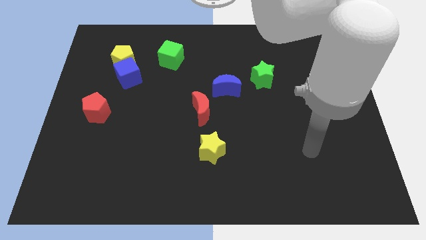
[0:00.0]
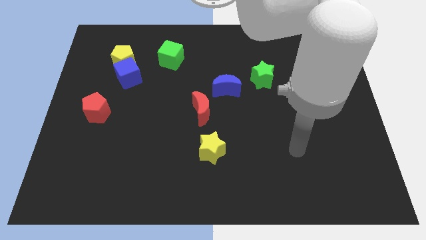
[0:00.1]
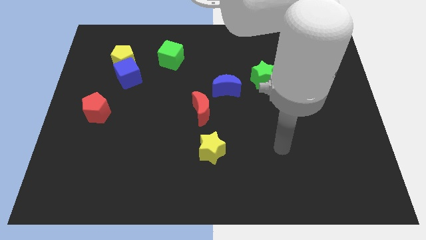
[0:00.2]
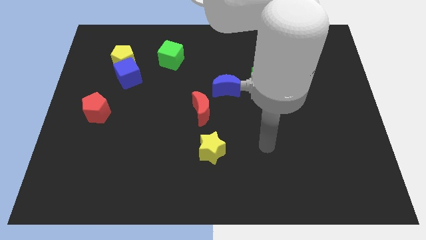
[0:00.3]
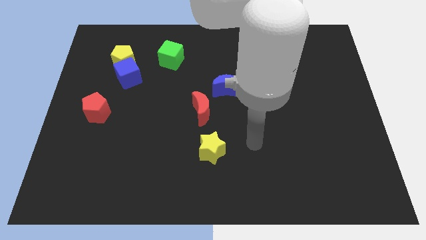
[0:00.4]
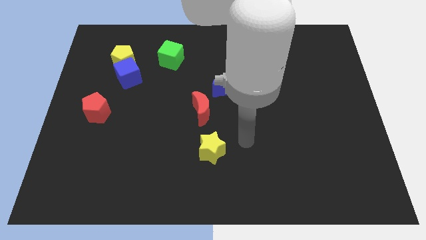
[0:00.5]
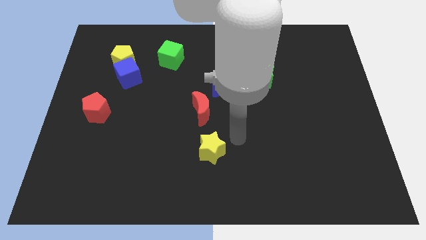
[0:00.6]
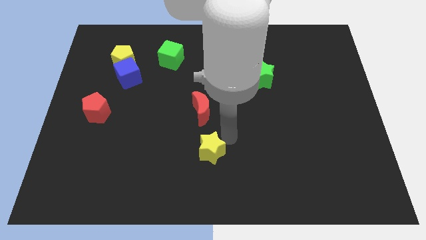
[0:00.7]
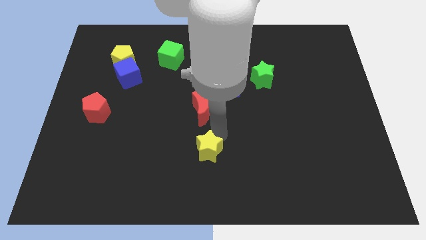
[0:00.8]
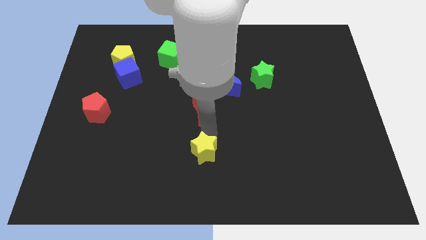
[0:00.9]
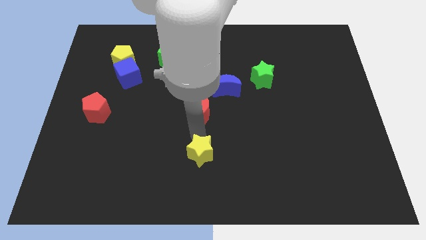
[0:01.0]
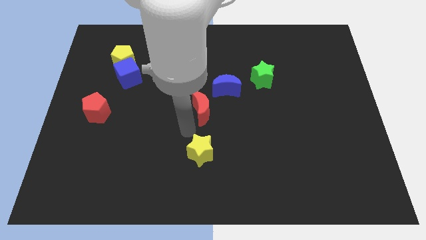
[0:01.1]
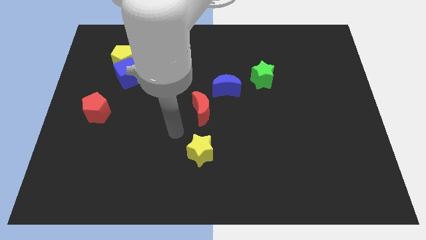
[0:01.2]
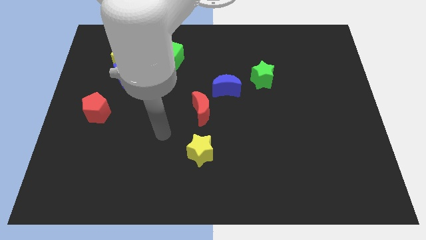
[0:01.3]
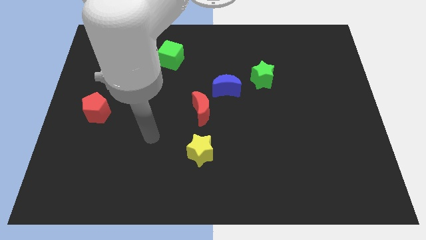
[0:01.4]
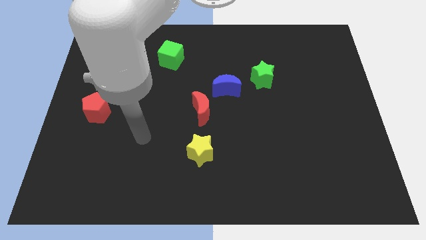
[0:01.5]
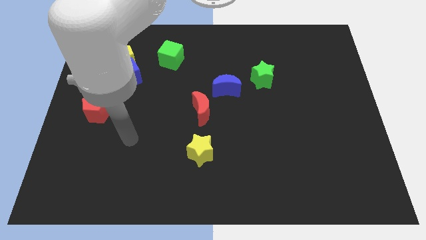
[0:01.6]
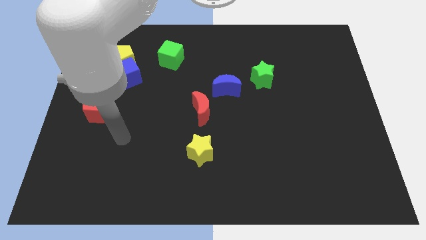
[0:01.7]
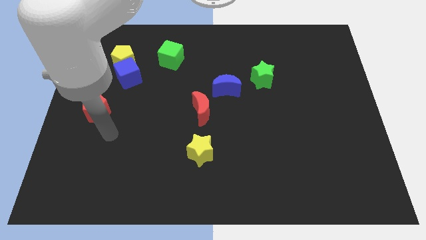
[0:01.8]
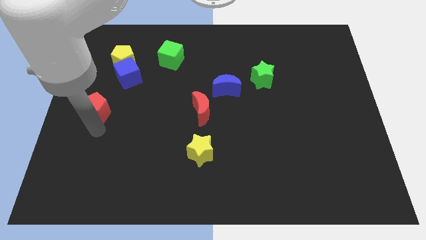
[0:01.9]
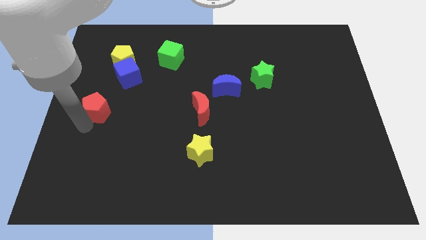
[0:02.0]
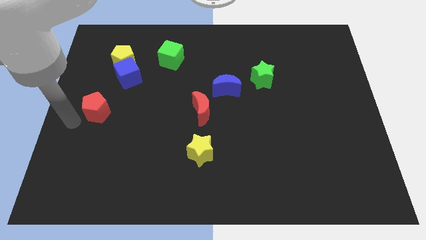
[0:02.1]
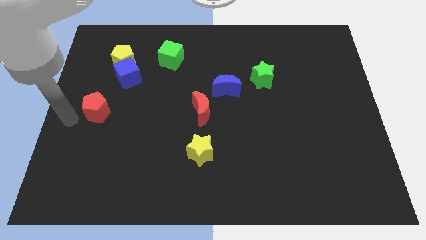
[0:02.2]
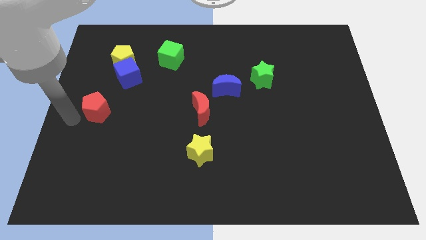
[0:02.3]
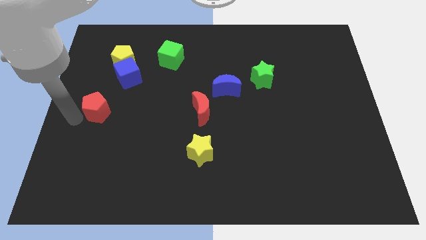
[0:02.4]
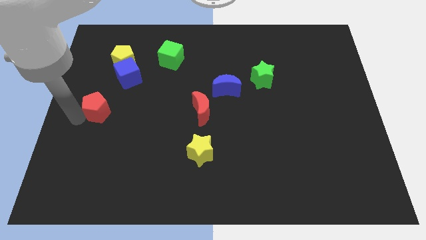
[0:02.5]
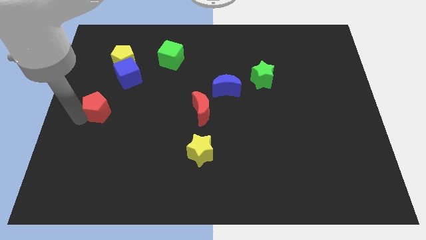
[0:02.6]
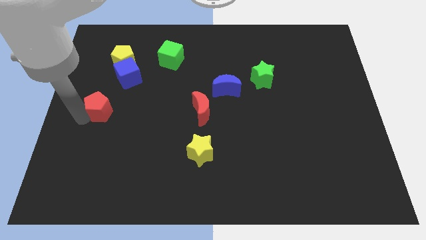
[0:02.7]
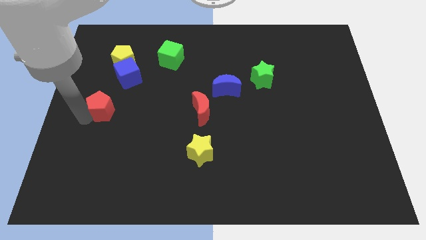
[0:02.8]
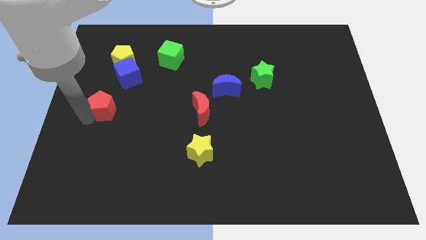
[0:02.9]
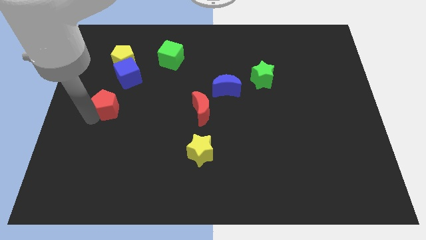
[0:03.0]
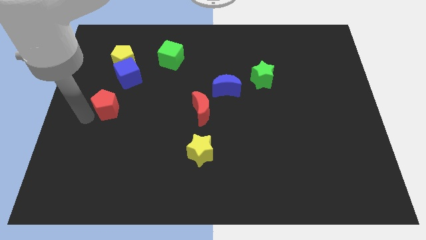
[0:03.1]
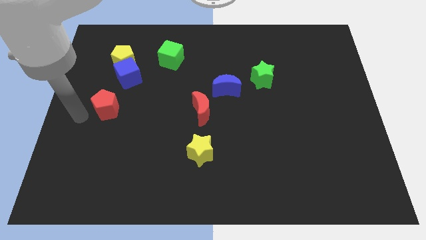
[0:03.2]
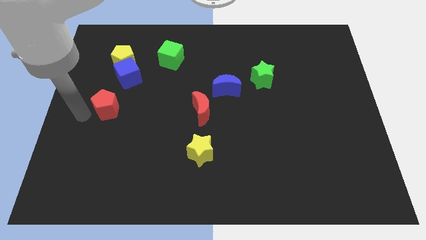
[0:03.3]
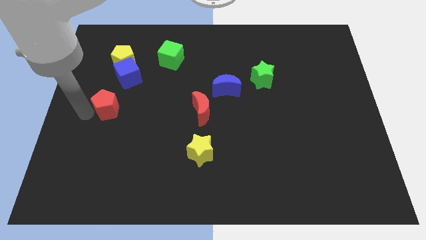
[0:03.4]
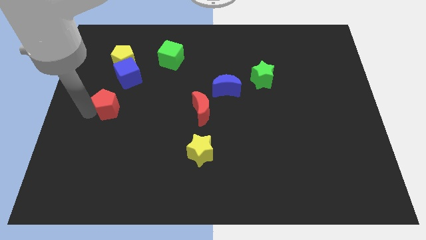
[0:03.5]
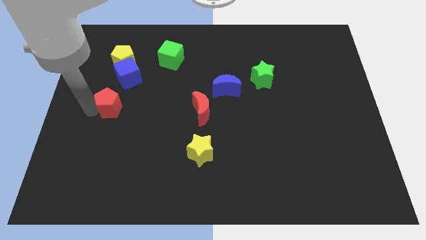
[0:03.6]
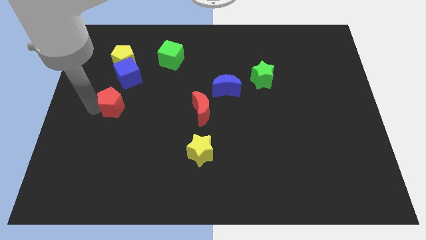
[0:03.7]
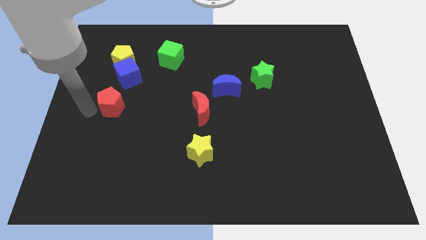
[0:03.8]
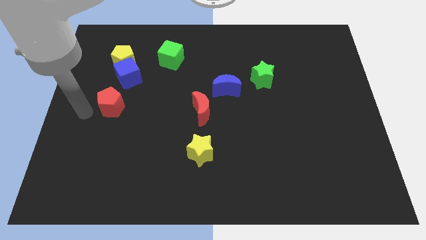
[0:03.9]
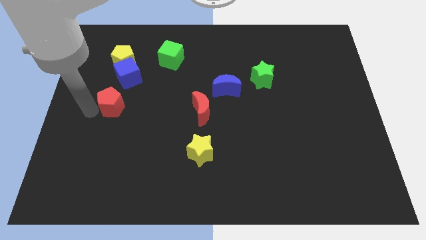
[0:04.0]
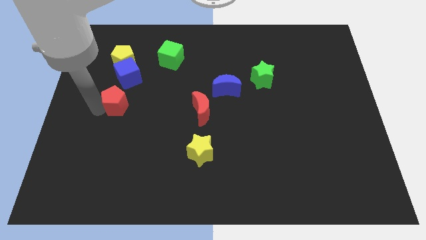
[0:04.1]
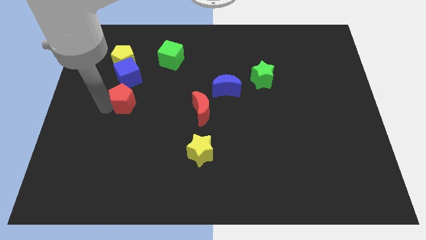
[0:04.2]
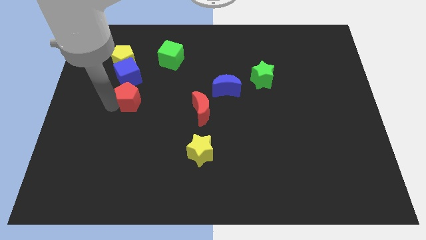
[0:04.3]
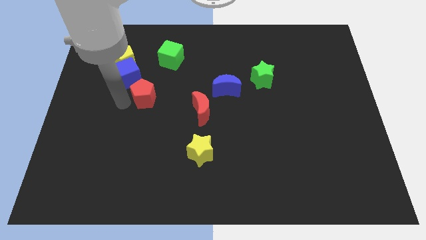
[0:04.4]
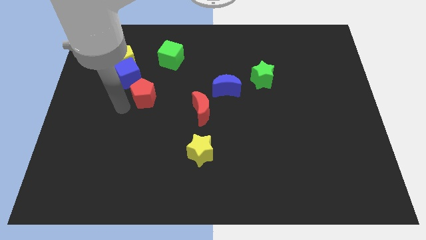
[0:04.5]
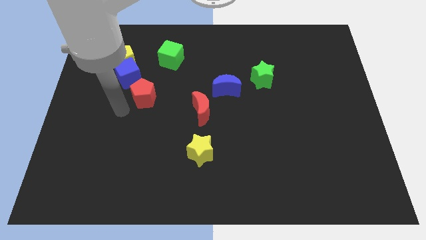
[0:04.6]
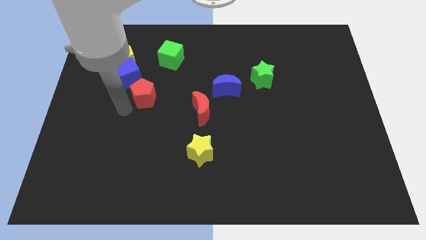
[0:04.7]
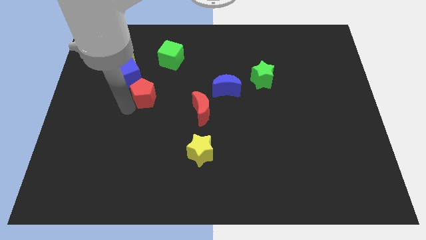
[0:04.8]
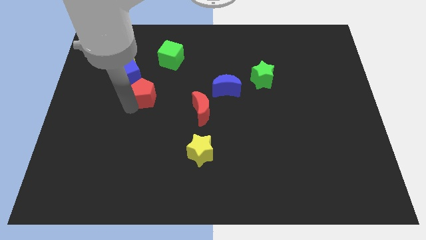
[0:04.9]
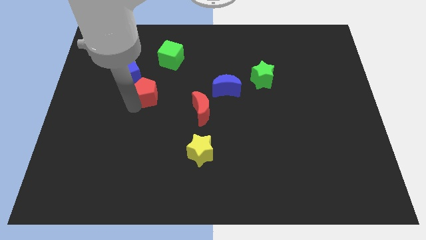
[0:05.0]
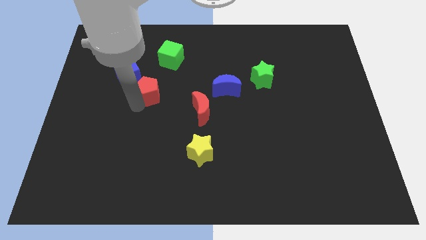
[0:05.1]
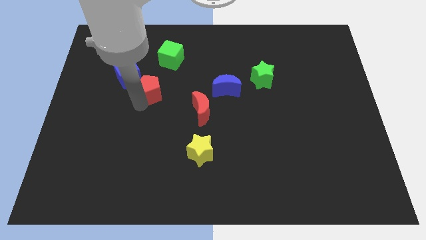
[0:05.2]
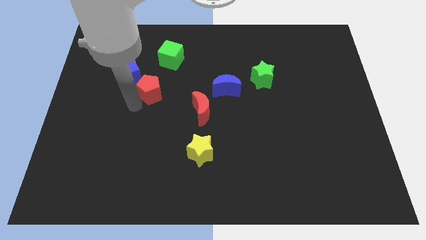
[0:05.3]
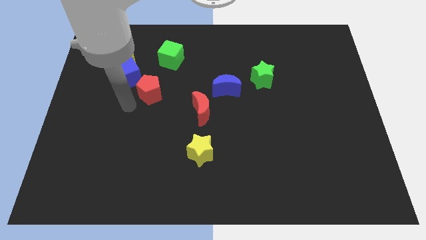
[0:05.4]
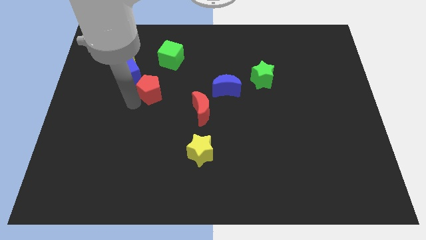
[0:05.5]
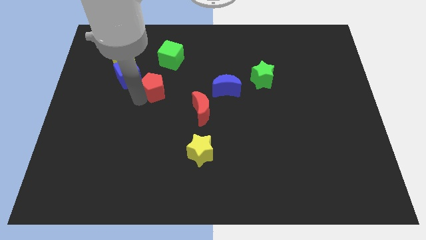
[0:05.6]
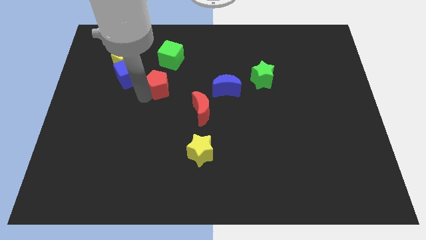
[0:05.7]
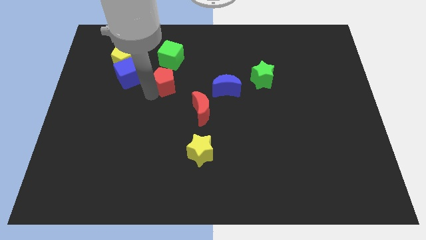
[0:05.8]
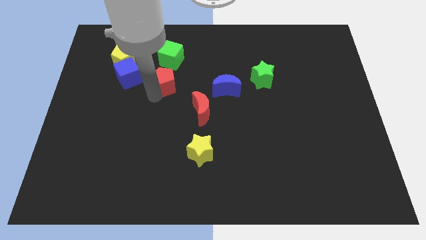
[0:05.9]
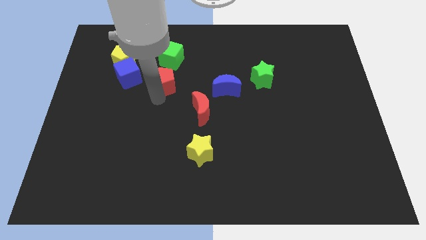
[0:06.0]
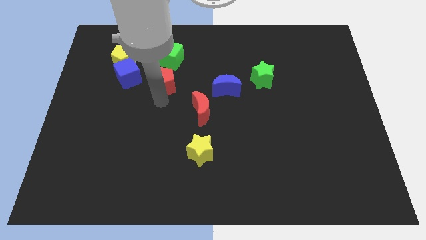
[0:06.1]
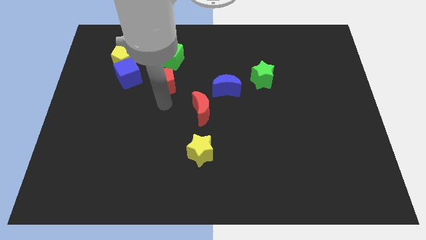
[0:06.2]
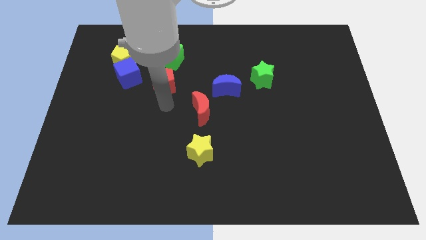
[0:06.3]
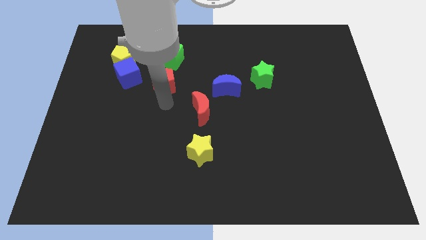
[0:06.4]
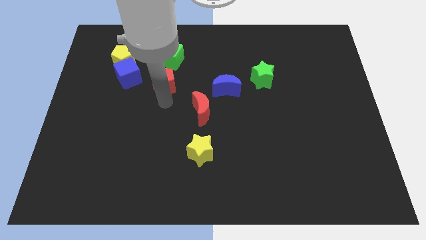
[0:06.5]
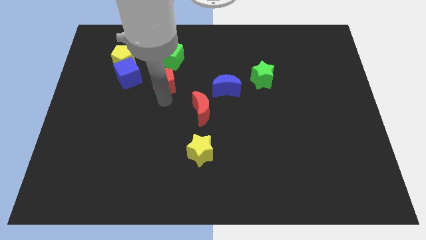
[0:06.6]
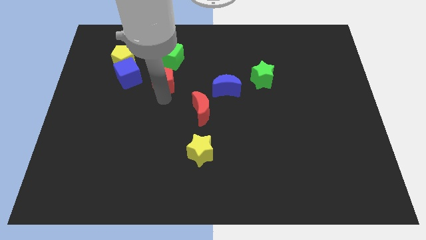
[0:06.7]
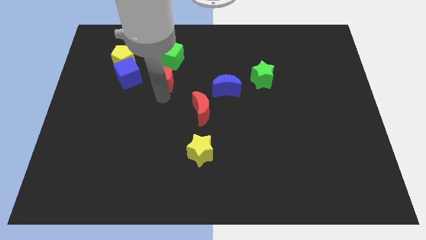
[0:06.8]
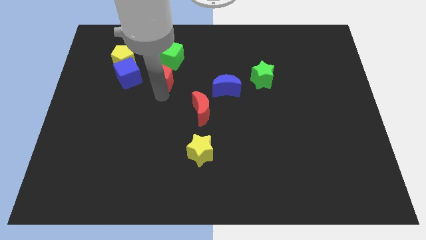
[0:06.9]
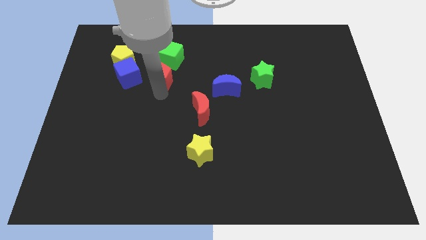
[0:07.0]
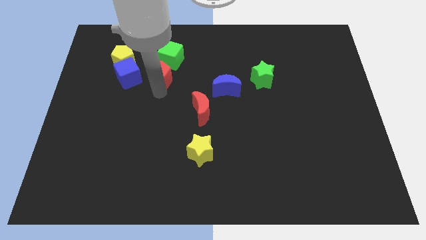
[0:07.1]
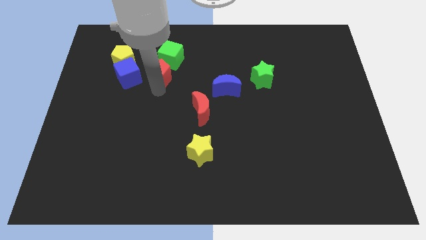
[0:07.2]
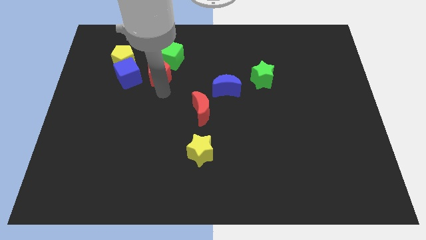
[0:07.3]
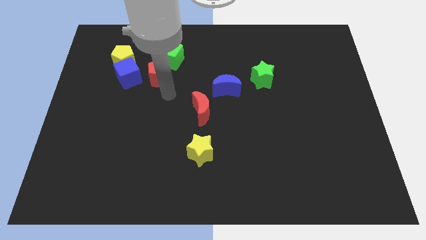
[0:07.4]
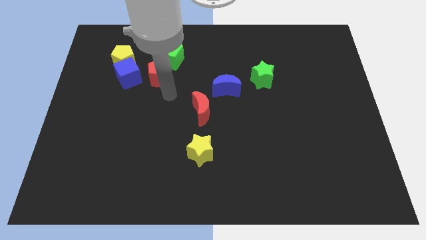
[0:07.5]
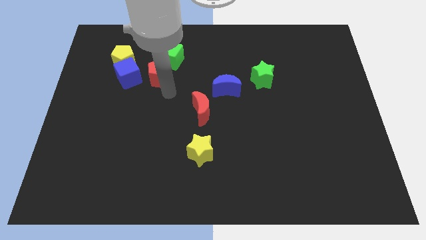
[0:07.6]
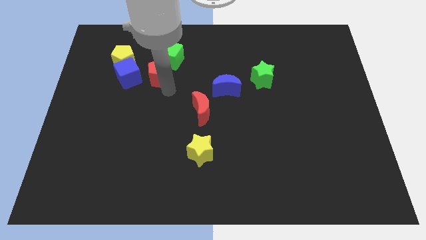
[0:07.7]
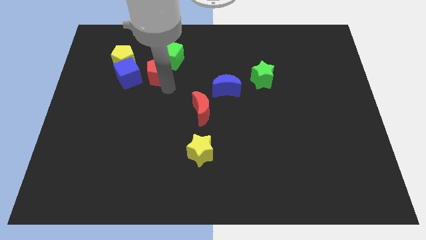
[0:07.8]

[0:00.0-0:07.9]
put the red pentagon diagonally up and to the right of the blue cube
